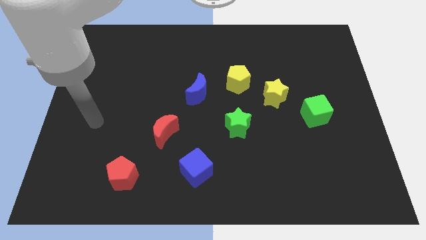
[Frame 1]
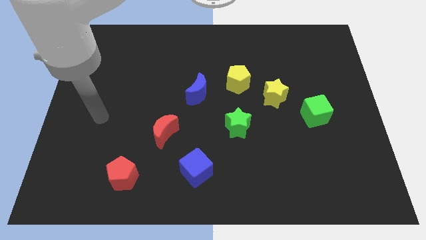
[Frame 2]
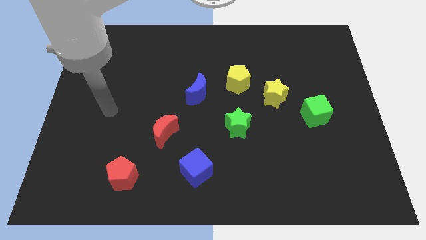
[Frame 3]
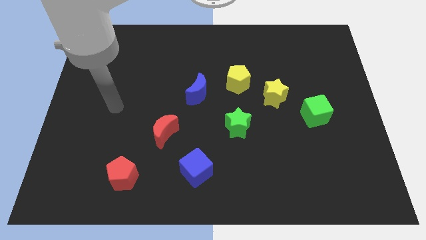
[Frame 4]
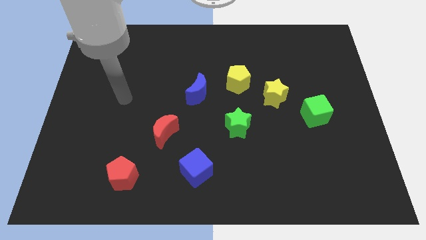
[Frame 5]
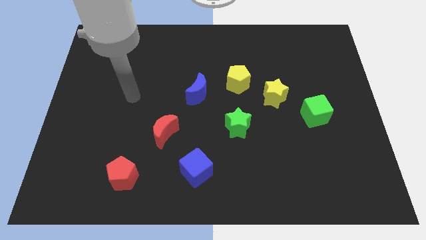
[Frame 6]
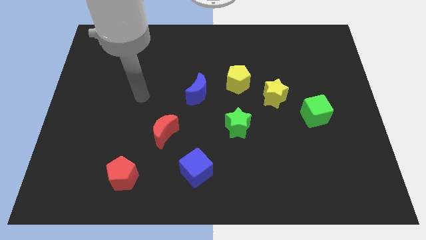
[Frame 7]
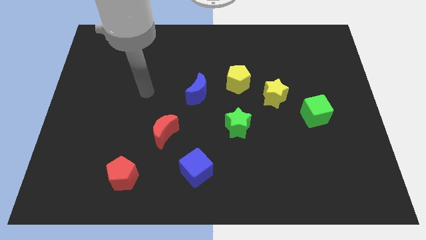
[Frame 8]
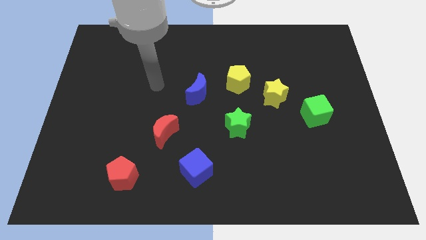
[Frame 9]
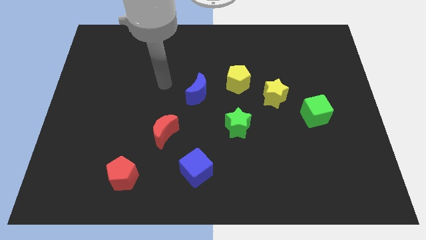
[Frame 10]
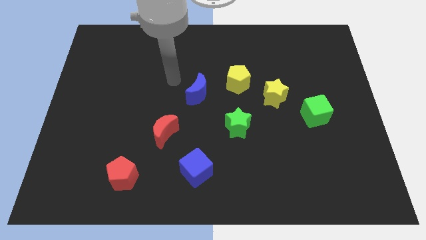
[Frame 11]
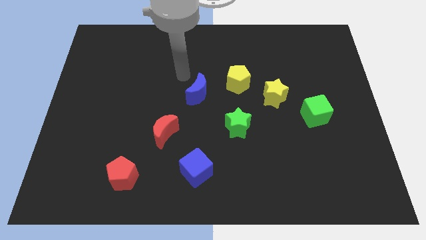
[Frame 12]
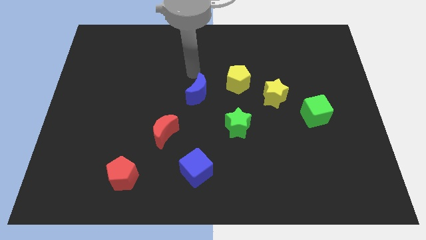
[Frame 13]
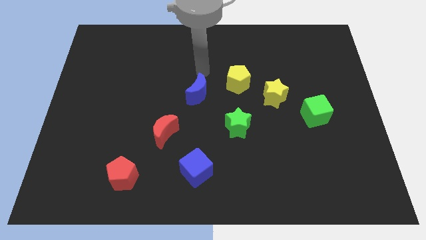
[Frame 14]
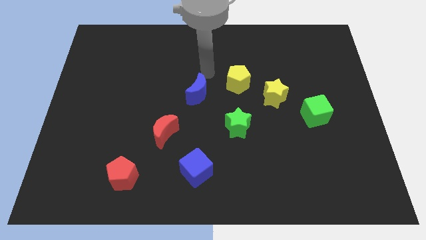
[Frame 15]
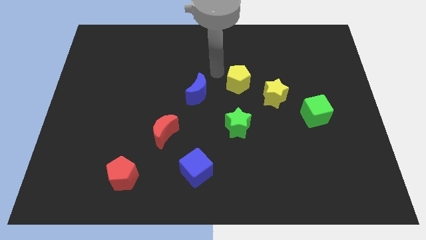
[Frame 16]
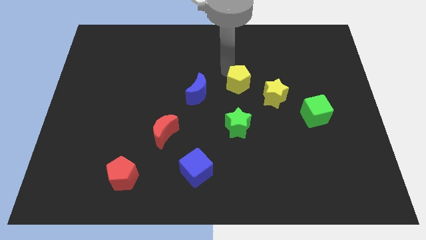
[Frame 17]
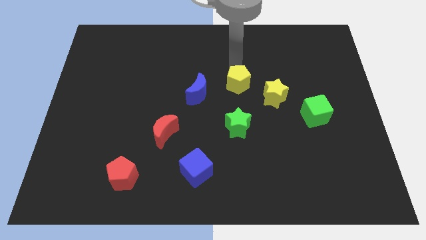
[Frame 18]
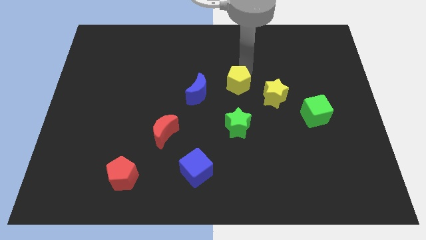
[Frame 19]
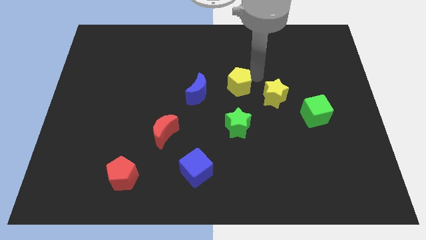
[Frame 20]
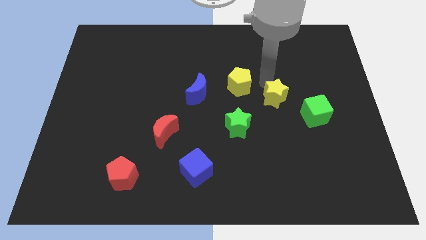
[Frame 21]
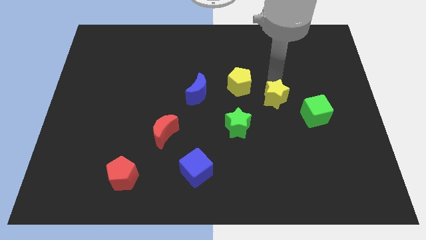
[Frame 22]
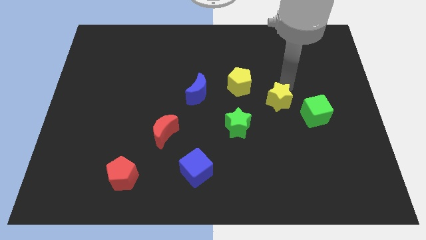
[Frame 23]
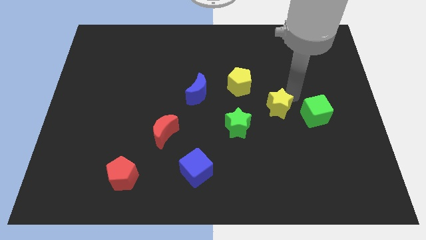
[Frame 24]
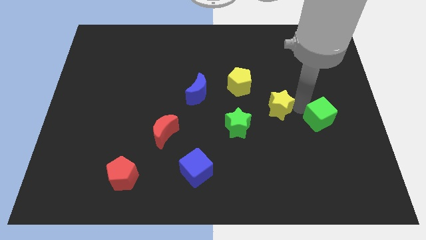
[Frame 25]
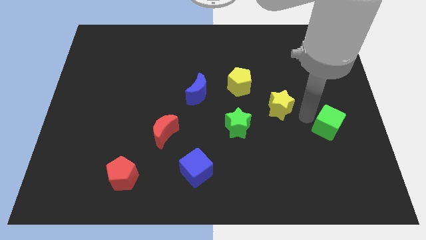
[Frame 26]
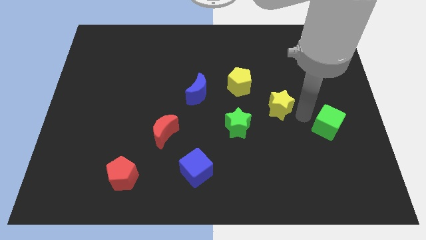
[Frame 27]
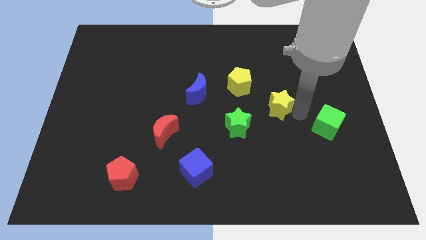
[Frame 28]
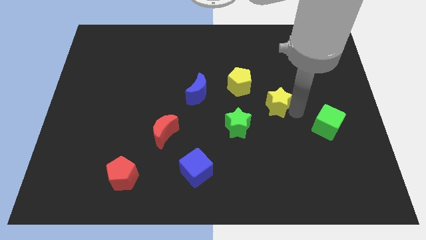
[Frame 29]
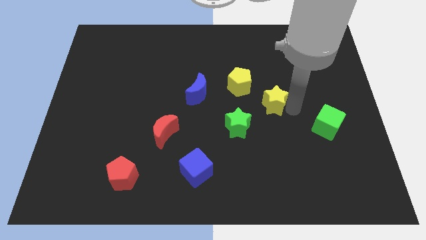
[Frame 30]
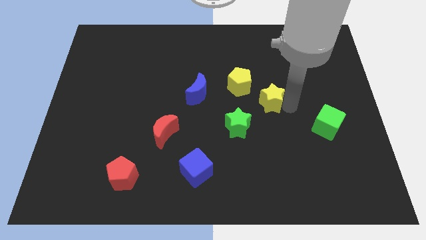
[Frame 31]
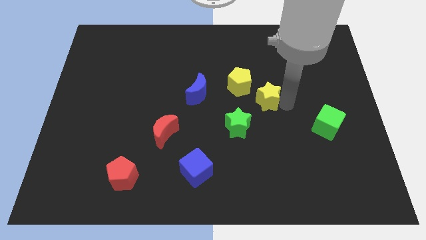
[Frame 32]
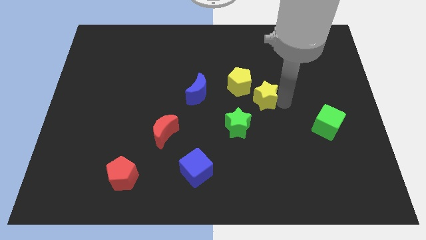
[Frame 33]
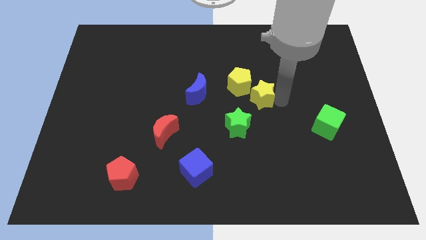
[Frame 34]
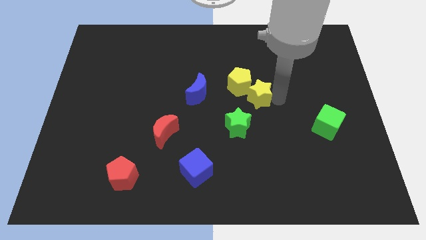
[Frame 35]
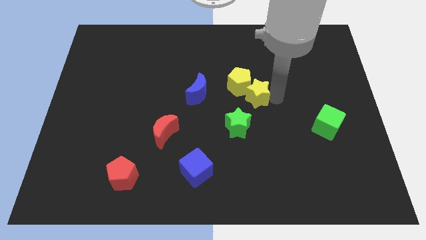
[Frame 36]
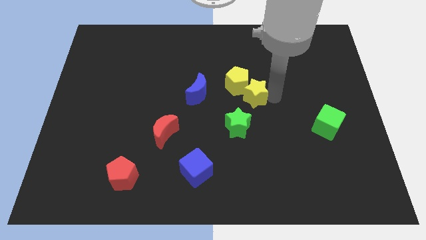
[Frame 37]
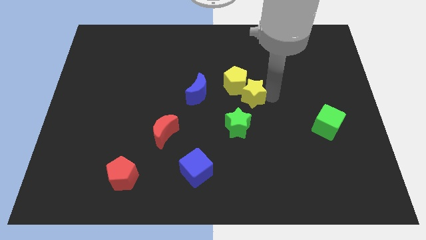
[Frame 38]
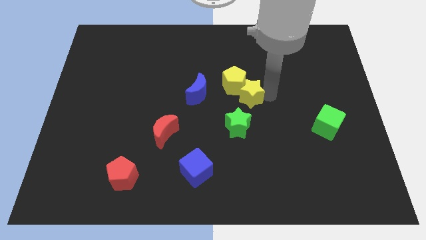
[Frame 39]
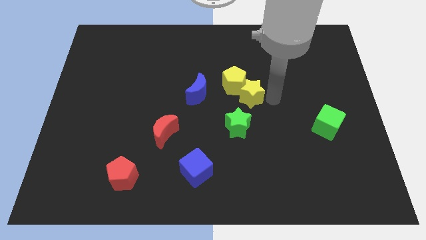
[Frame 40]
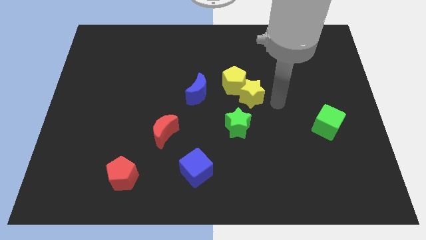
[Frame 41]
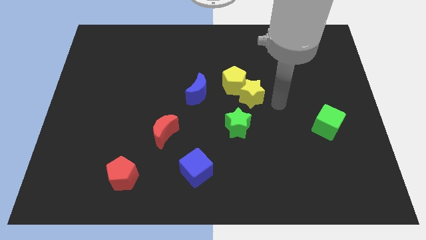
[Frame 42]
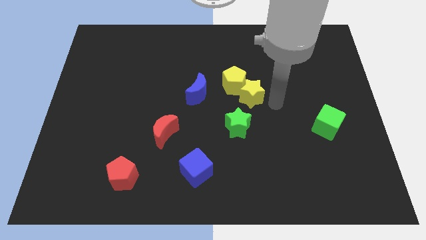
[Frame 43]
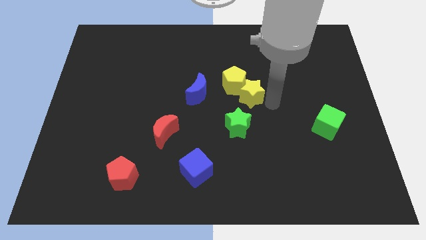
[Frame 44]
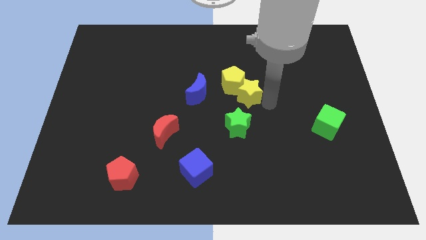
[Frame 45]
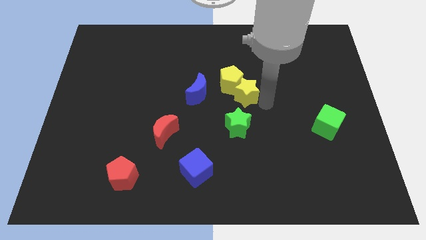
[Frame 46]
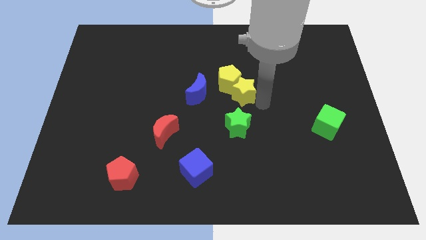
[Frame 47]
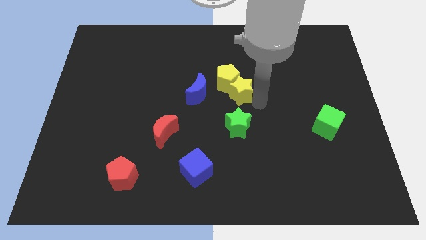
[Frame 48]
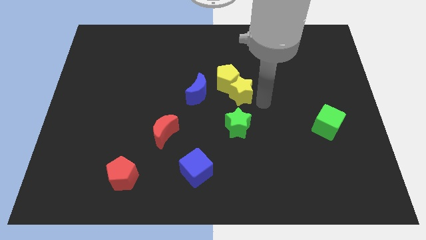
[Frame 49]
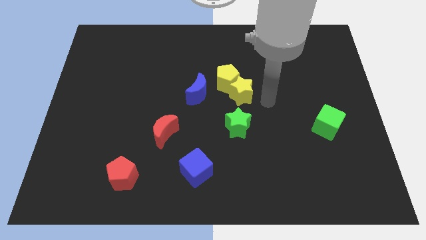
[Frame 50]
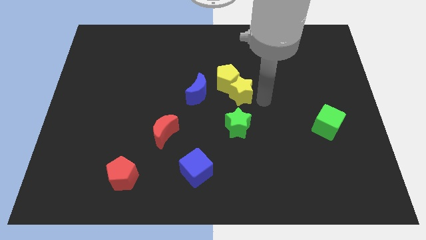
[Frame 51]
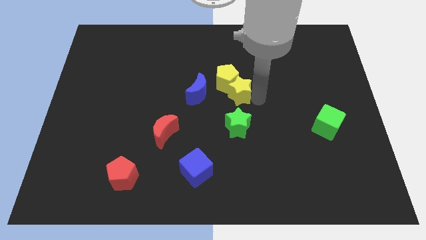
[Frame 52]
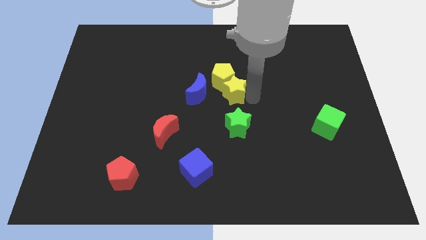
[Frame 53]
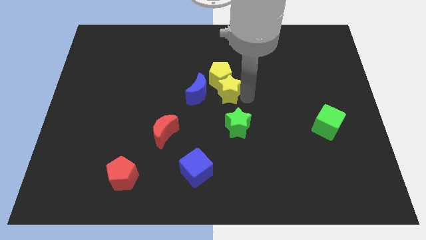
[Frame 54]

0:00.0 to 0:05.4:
move the yellow star away from the yellow pentagon and green cube

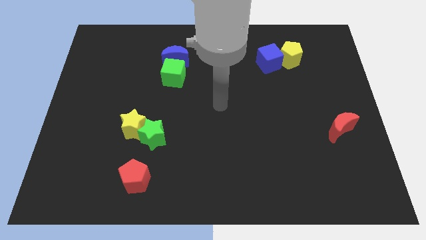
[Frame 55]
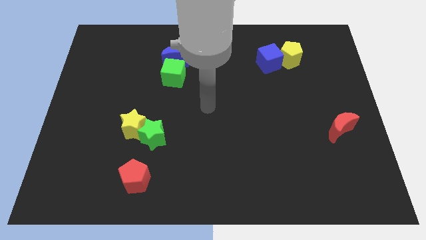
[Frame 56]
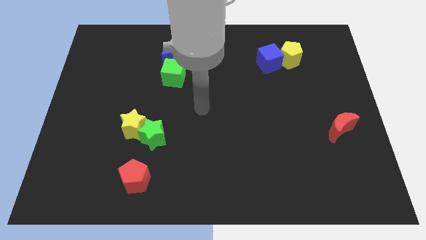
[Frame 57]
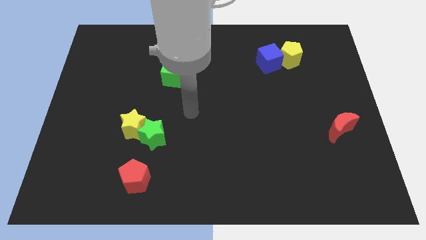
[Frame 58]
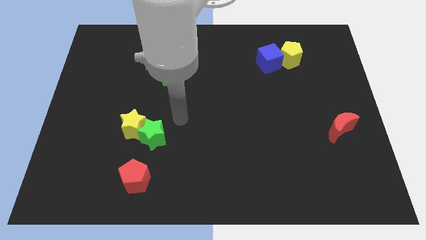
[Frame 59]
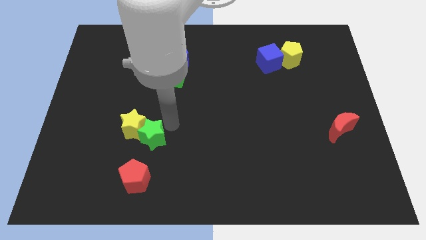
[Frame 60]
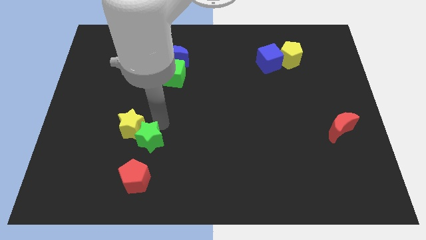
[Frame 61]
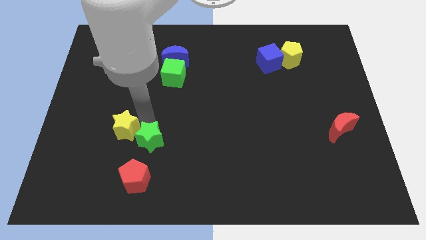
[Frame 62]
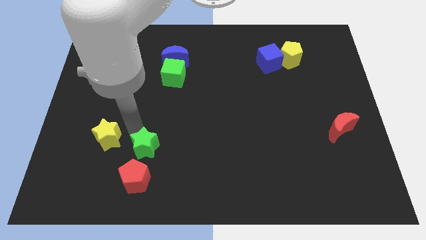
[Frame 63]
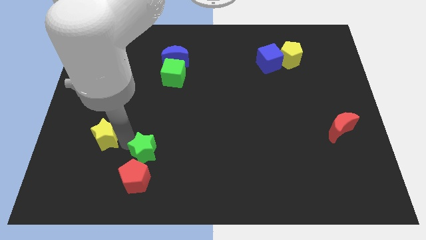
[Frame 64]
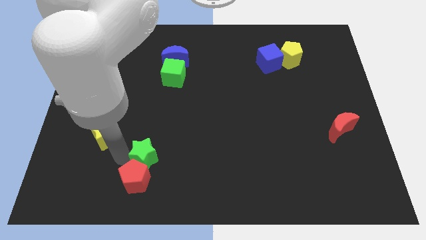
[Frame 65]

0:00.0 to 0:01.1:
separate the green star from the yellow star

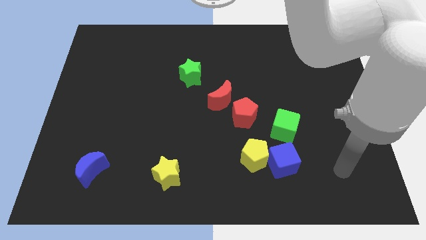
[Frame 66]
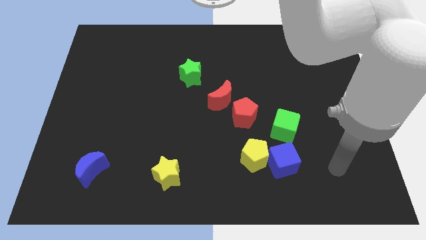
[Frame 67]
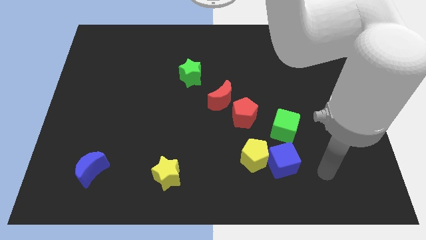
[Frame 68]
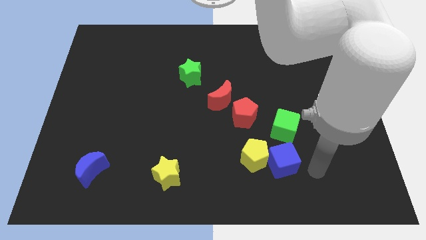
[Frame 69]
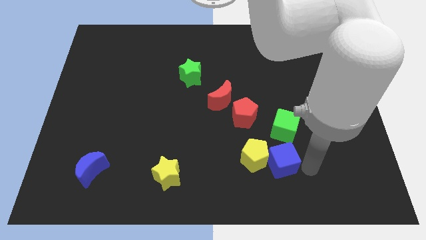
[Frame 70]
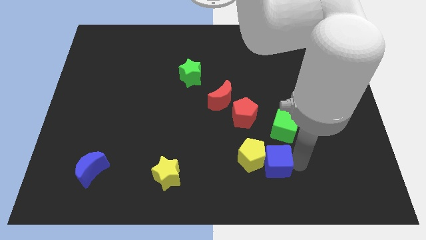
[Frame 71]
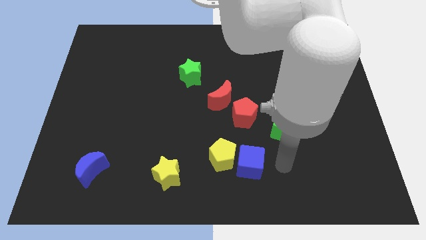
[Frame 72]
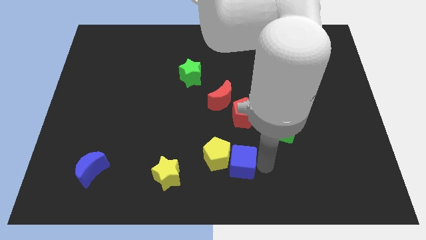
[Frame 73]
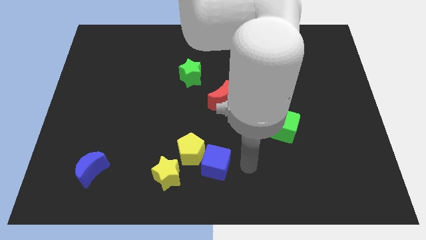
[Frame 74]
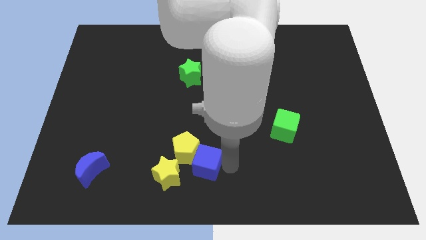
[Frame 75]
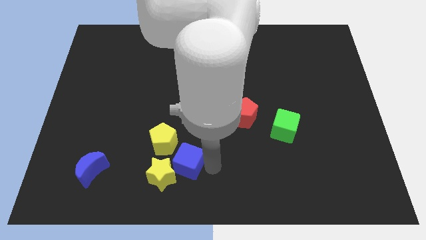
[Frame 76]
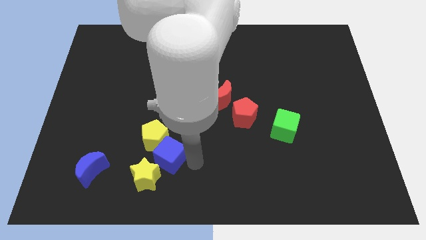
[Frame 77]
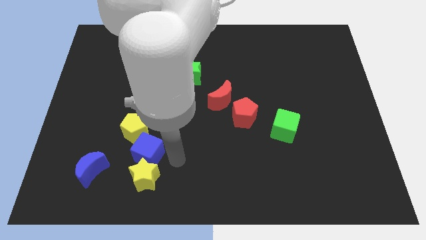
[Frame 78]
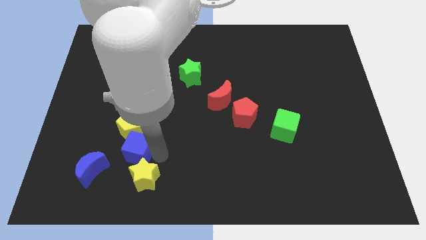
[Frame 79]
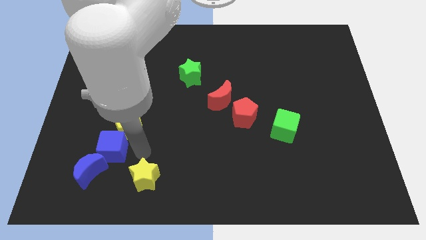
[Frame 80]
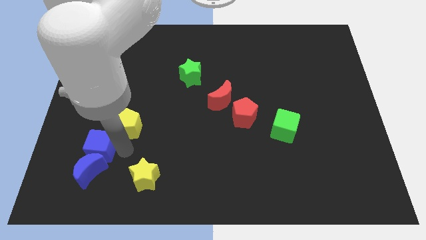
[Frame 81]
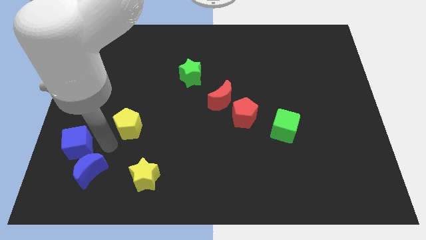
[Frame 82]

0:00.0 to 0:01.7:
separate the yellow pentagon from the blue cube

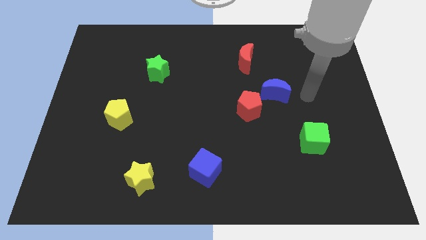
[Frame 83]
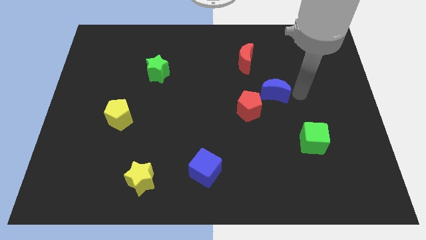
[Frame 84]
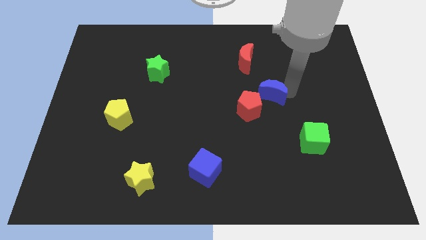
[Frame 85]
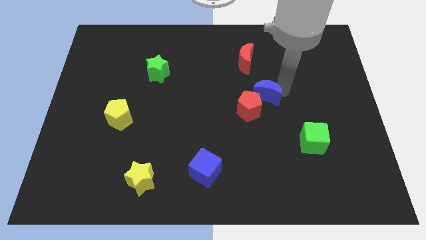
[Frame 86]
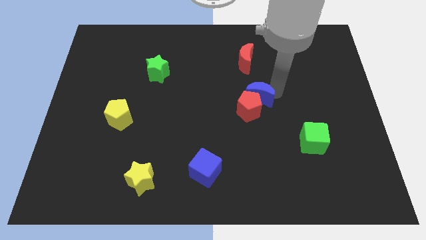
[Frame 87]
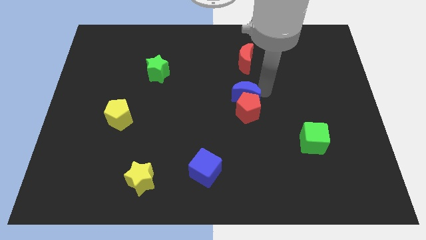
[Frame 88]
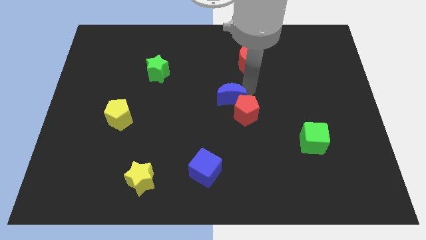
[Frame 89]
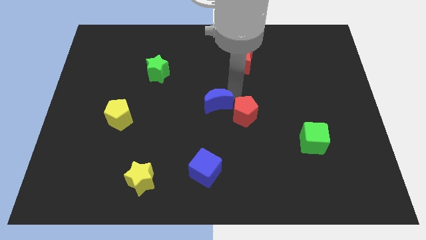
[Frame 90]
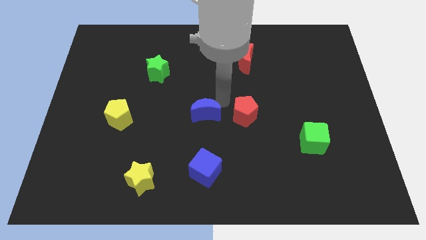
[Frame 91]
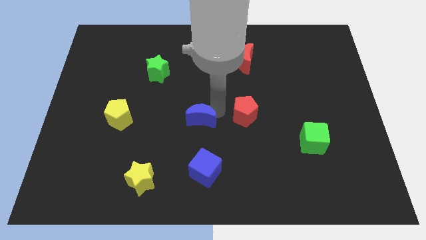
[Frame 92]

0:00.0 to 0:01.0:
separate the red pentagon from the blue moon

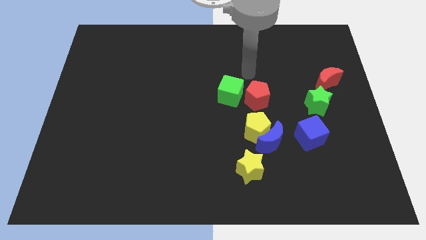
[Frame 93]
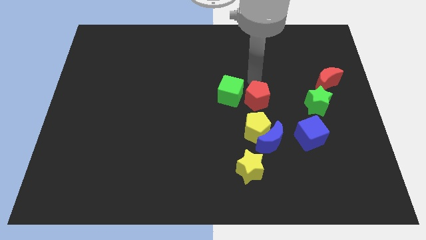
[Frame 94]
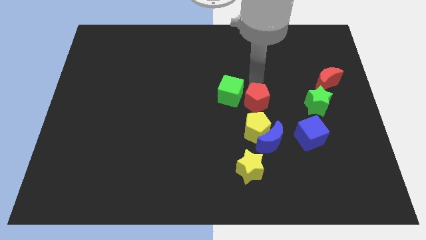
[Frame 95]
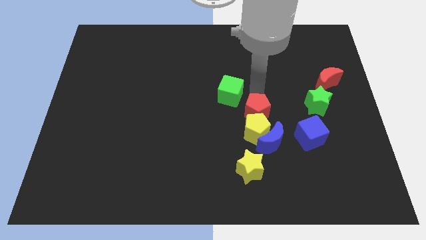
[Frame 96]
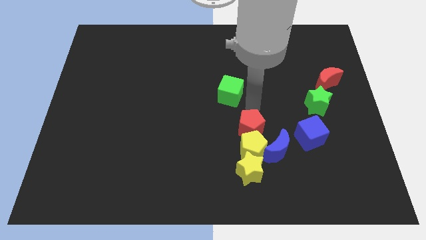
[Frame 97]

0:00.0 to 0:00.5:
pull the green cube apart from the red pentagon
